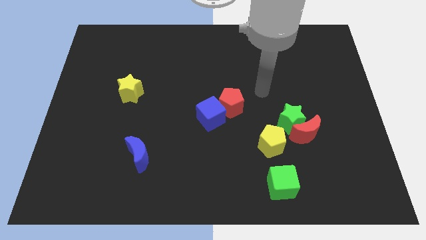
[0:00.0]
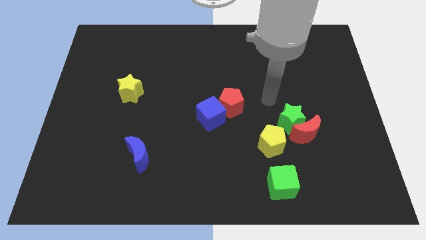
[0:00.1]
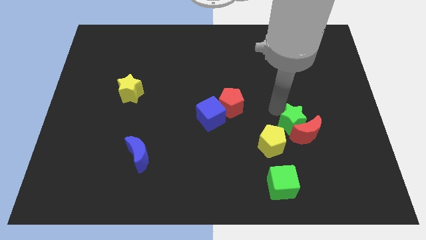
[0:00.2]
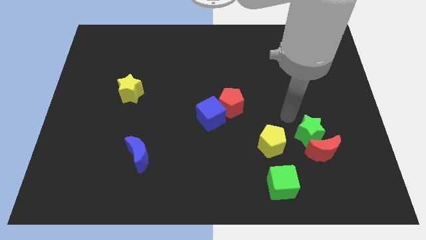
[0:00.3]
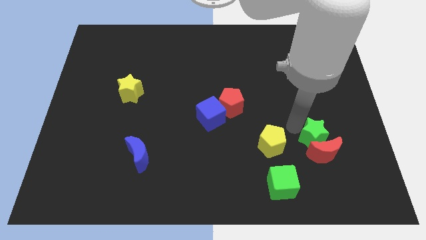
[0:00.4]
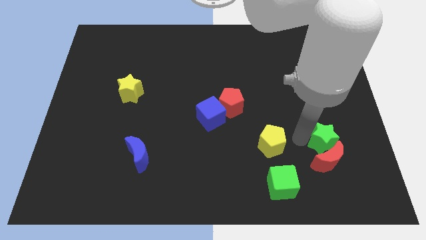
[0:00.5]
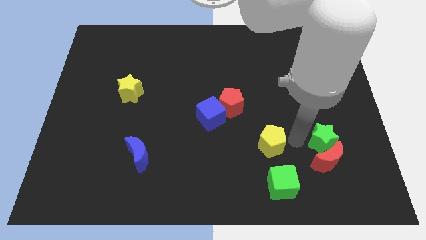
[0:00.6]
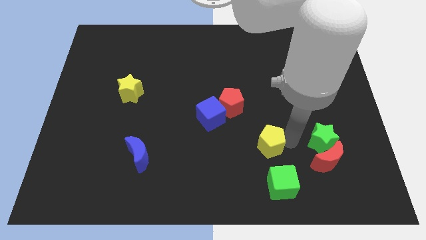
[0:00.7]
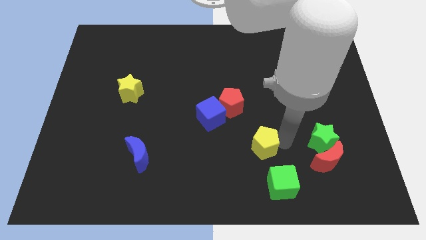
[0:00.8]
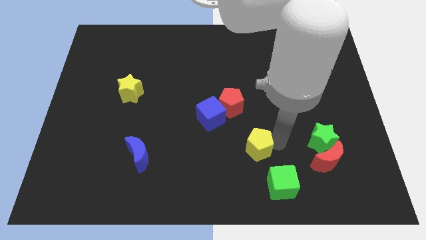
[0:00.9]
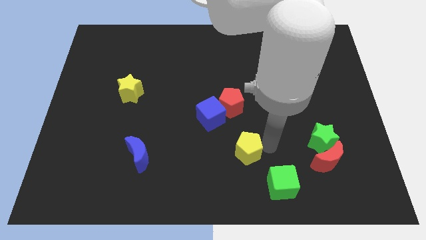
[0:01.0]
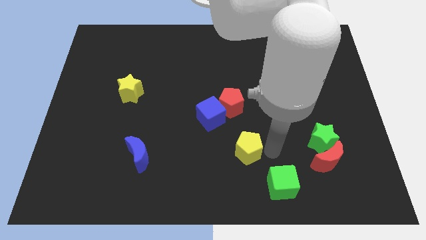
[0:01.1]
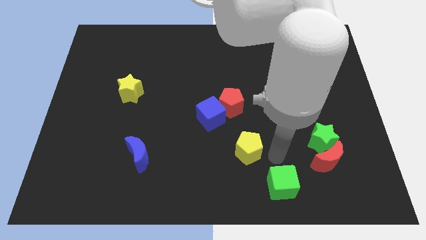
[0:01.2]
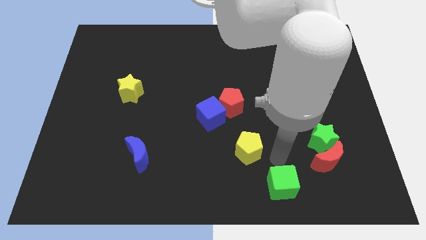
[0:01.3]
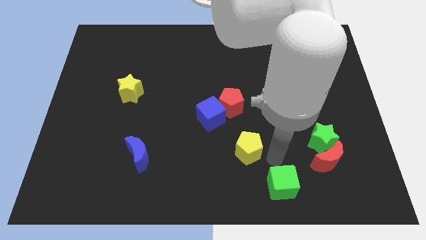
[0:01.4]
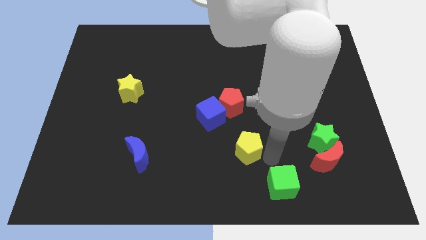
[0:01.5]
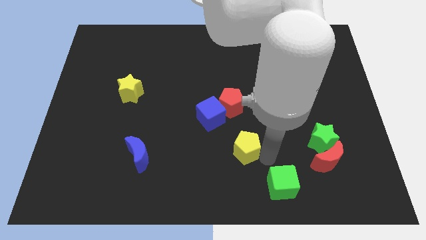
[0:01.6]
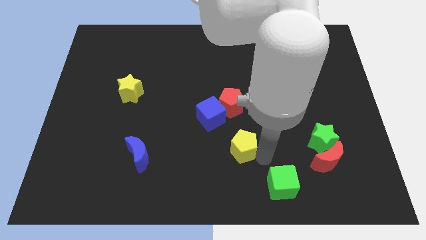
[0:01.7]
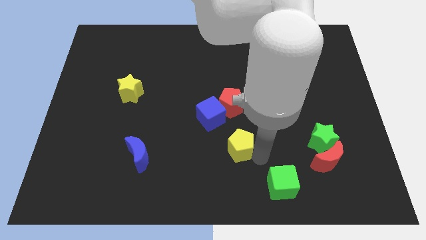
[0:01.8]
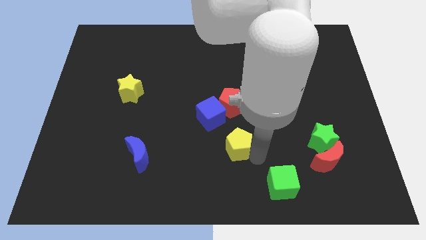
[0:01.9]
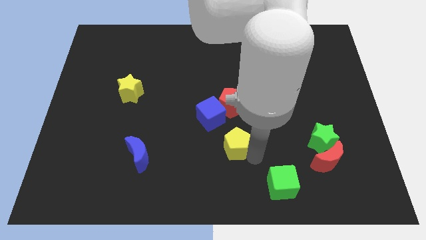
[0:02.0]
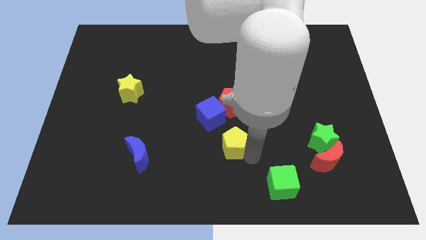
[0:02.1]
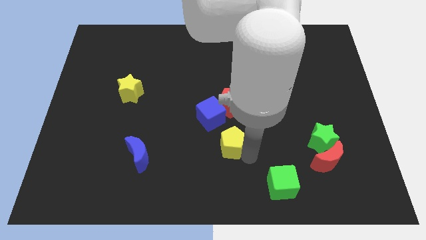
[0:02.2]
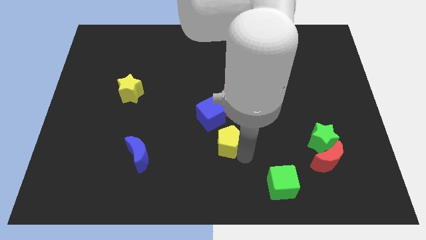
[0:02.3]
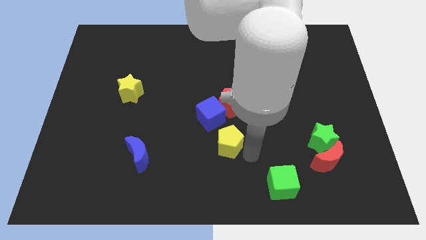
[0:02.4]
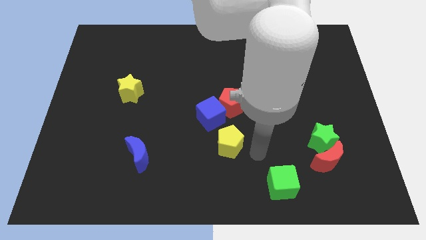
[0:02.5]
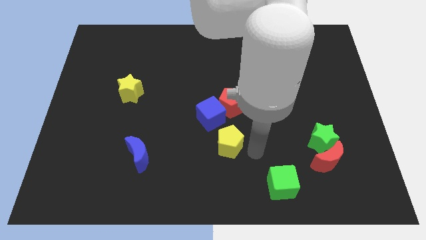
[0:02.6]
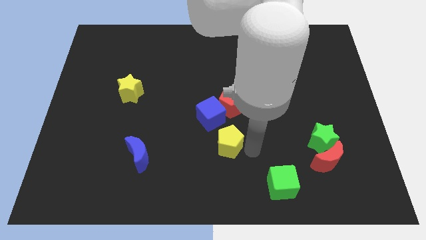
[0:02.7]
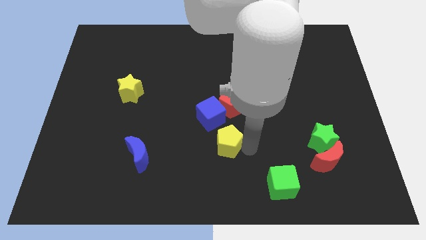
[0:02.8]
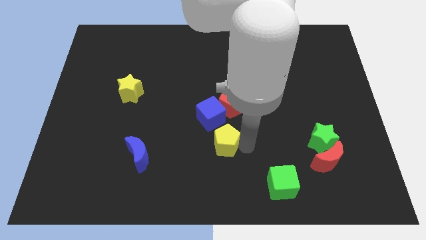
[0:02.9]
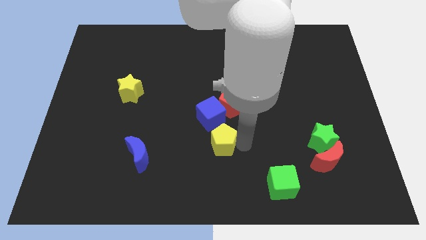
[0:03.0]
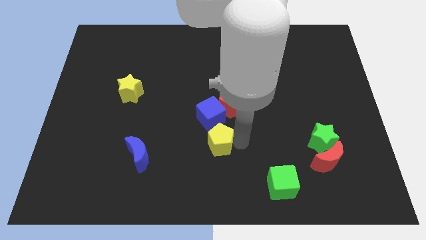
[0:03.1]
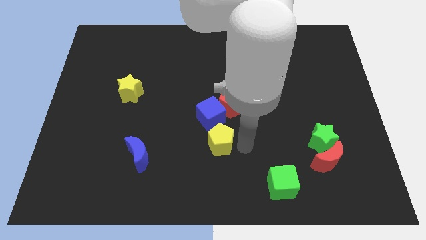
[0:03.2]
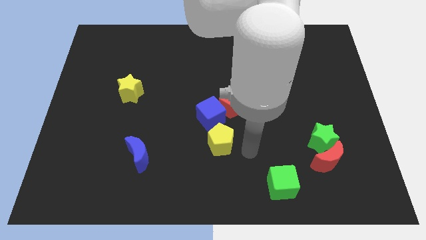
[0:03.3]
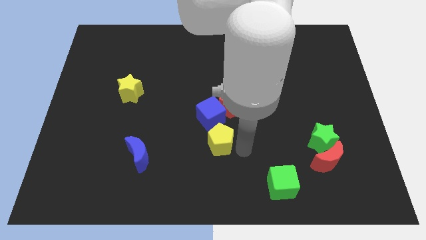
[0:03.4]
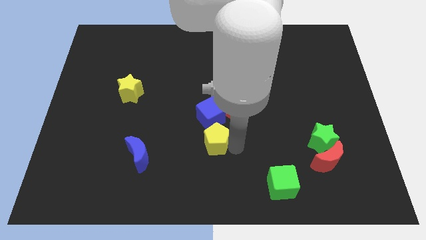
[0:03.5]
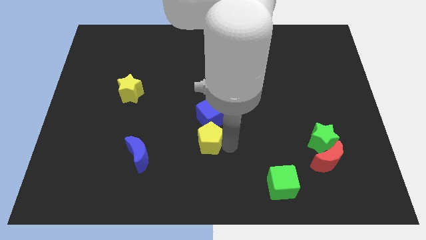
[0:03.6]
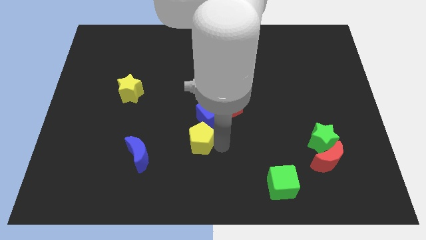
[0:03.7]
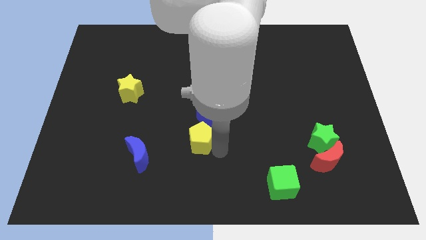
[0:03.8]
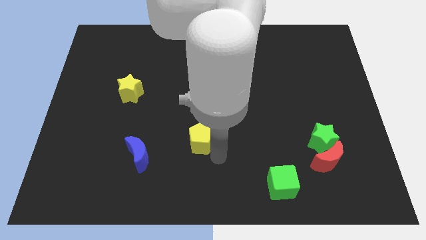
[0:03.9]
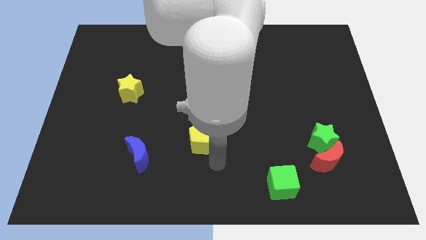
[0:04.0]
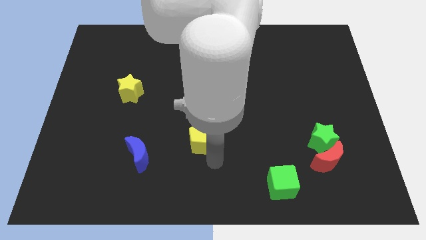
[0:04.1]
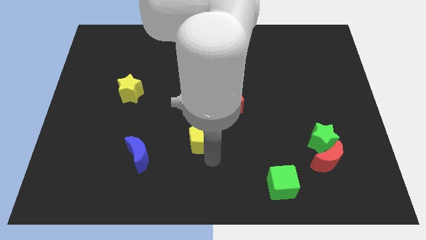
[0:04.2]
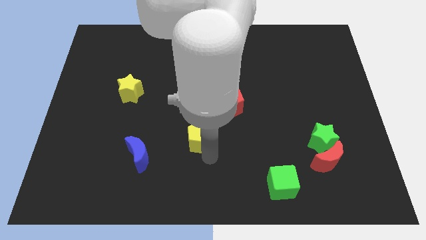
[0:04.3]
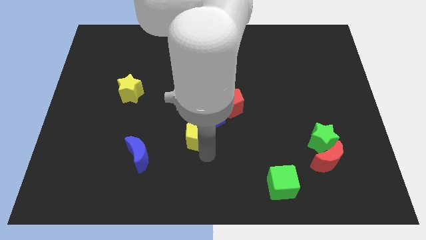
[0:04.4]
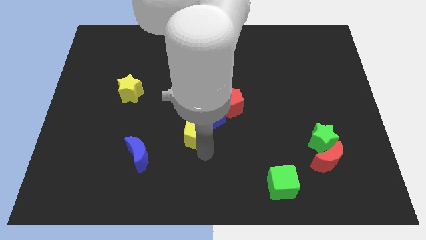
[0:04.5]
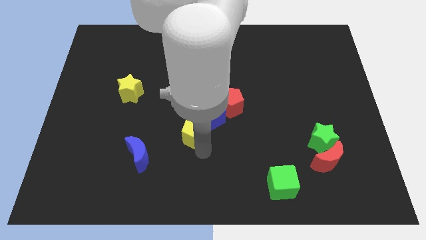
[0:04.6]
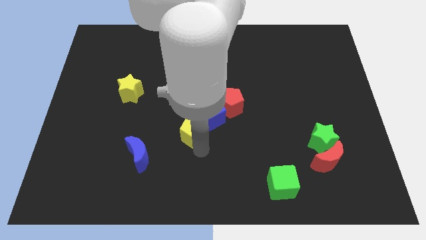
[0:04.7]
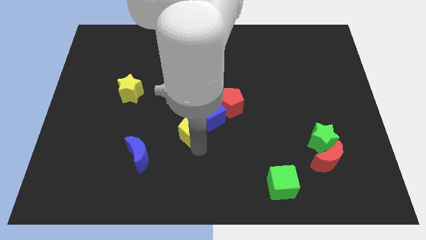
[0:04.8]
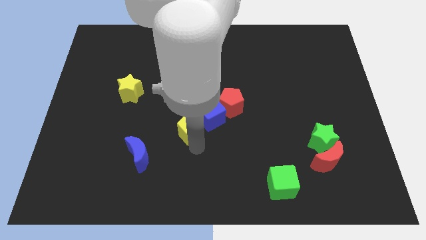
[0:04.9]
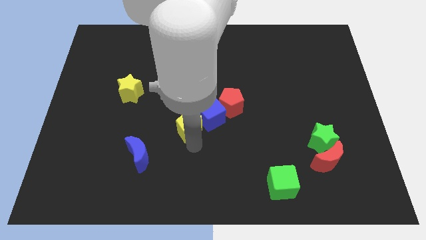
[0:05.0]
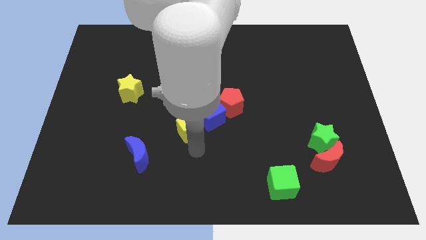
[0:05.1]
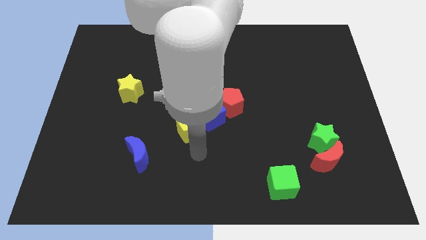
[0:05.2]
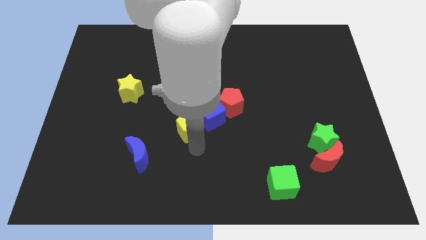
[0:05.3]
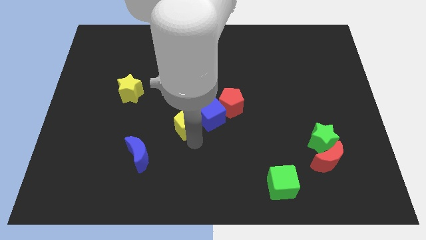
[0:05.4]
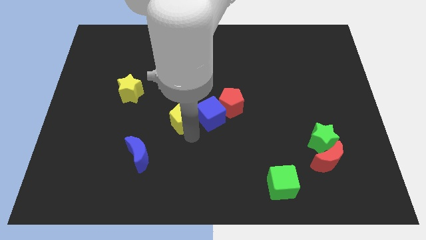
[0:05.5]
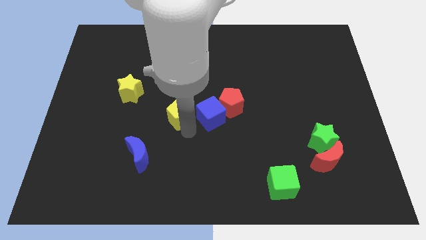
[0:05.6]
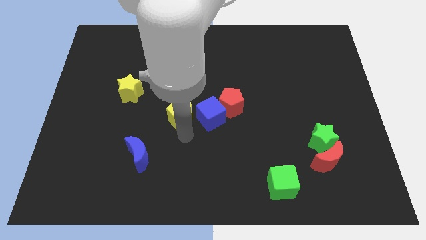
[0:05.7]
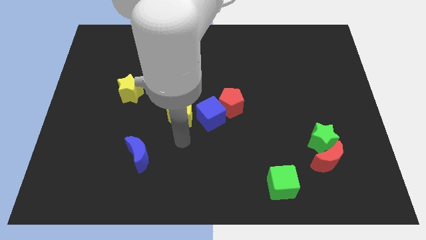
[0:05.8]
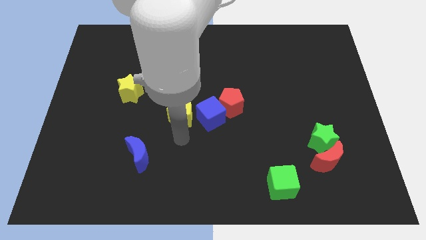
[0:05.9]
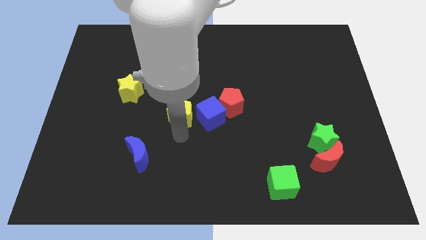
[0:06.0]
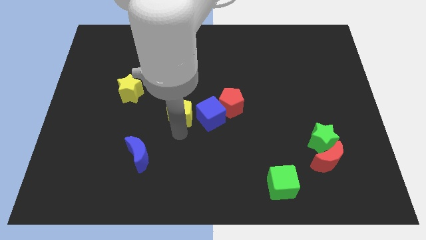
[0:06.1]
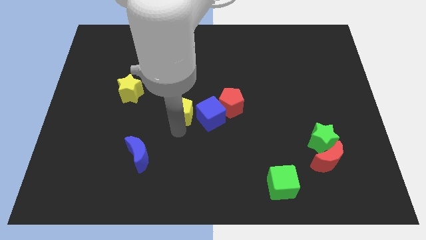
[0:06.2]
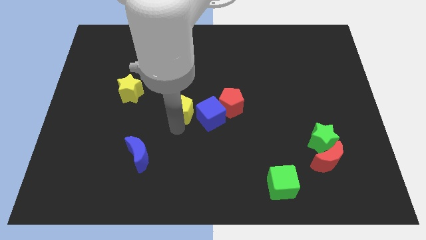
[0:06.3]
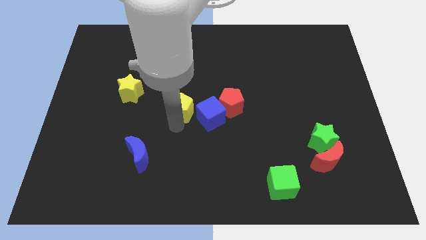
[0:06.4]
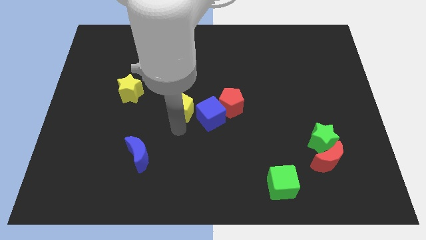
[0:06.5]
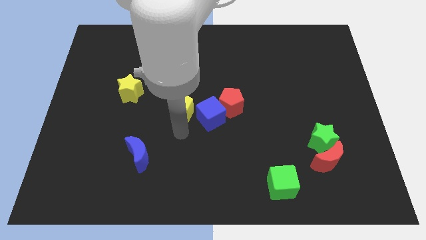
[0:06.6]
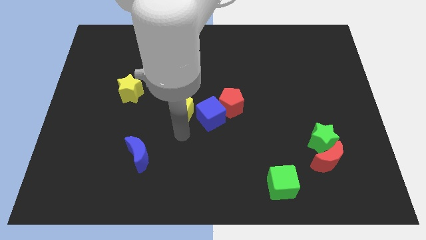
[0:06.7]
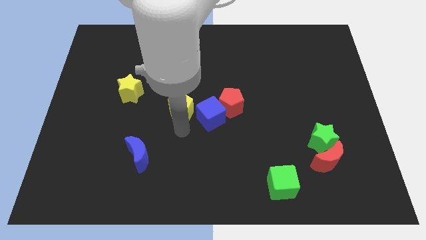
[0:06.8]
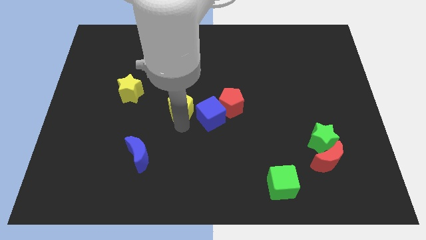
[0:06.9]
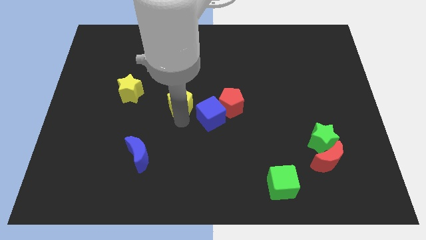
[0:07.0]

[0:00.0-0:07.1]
move the yellow pentagon up and then to the left

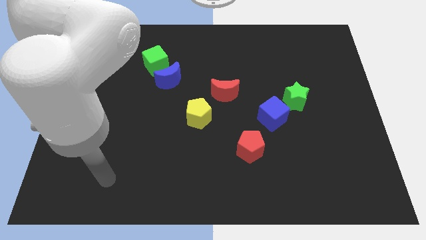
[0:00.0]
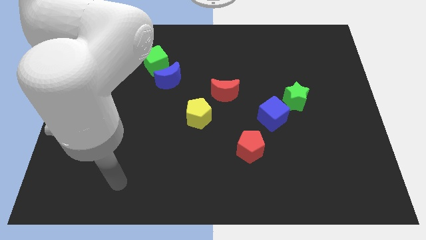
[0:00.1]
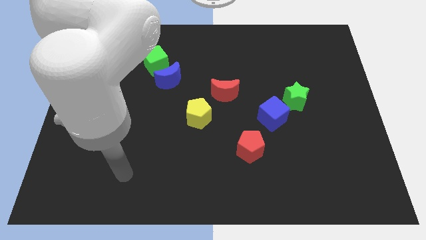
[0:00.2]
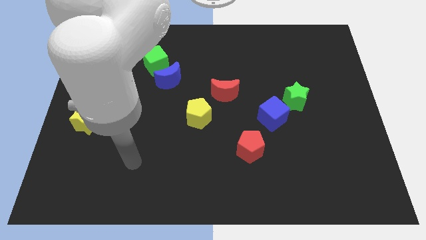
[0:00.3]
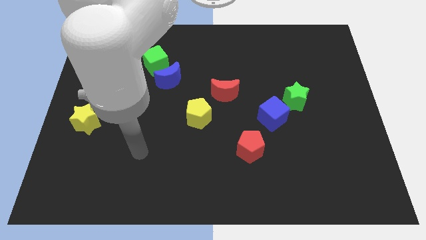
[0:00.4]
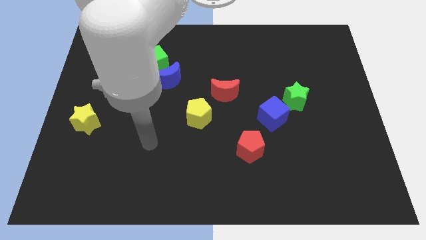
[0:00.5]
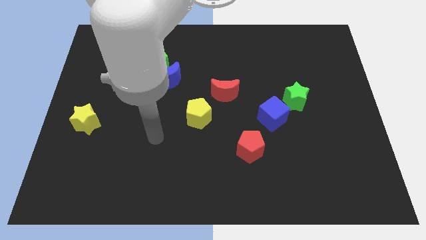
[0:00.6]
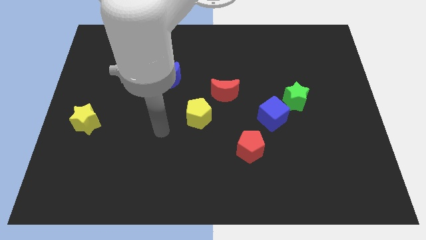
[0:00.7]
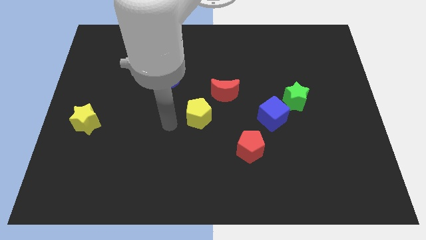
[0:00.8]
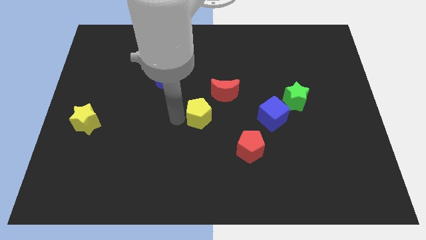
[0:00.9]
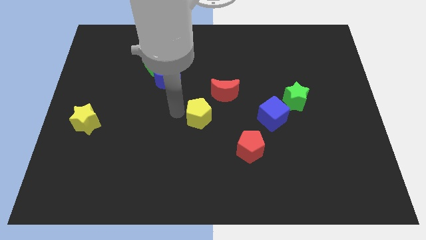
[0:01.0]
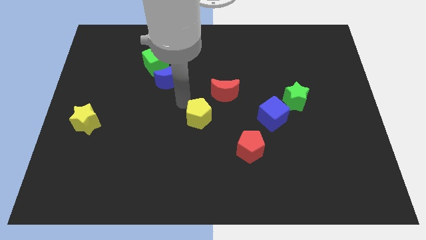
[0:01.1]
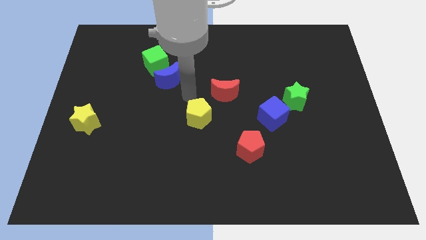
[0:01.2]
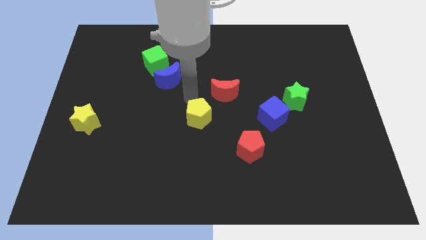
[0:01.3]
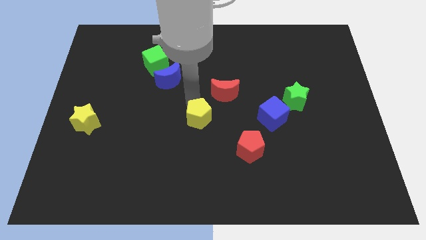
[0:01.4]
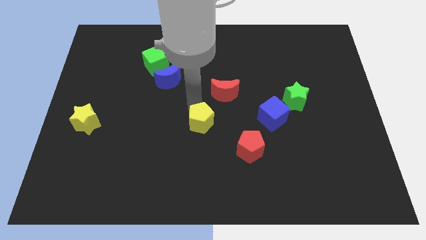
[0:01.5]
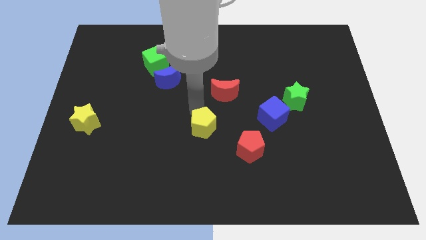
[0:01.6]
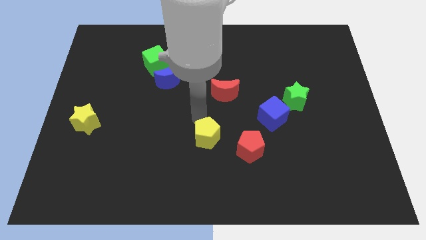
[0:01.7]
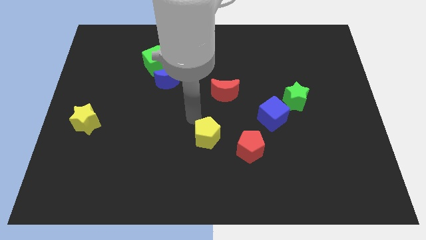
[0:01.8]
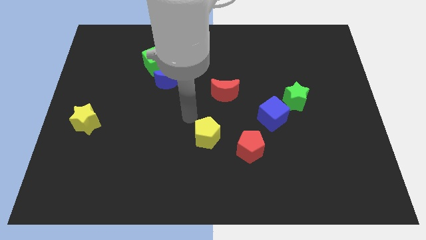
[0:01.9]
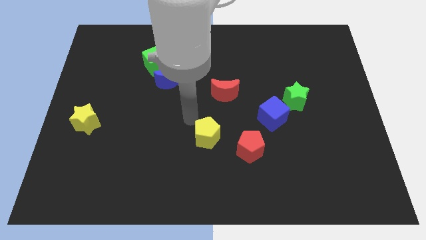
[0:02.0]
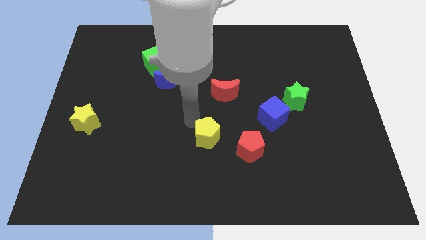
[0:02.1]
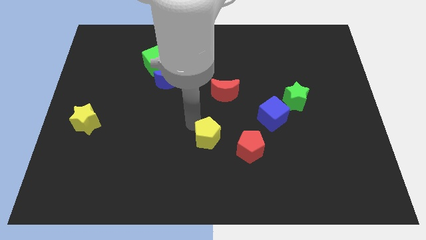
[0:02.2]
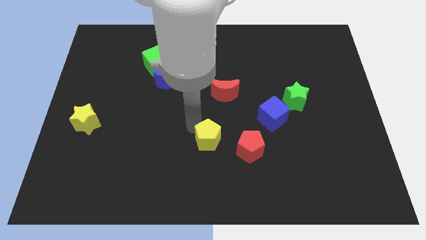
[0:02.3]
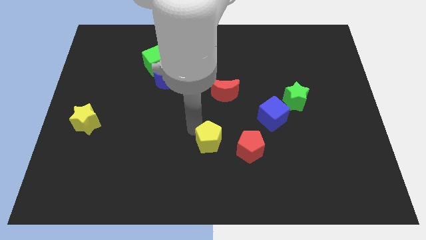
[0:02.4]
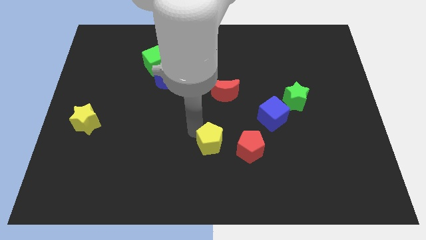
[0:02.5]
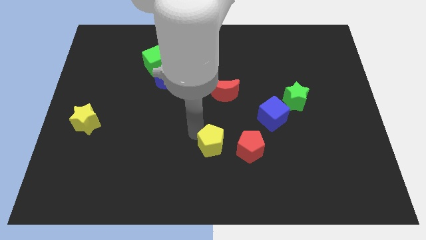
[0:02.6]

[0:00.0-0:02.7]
push the yellow pentagon a little bit down and to the right
